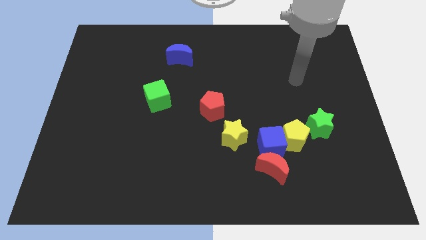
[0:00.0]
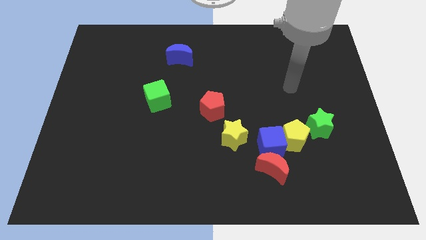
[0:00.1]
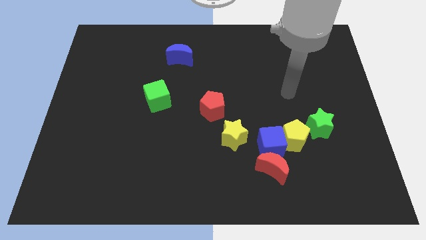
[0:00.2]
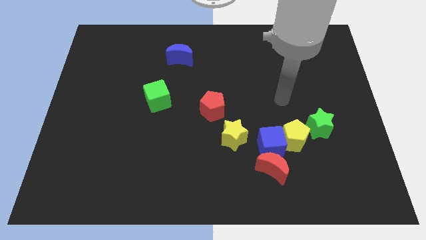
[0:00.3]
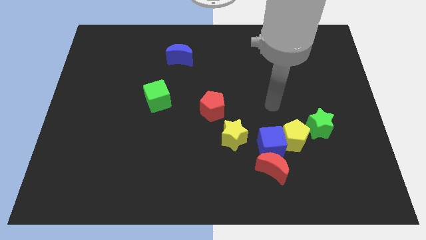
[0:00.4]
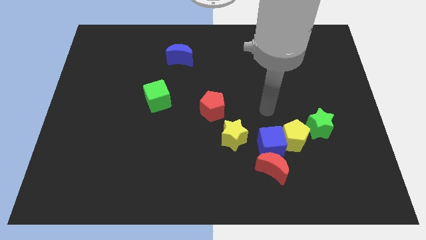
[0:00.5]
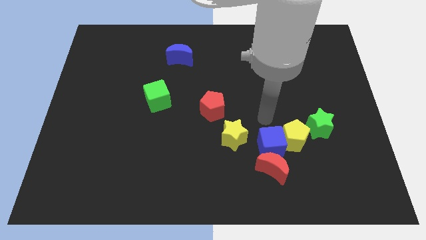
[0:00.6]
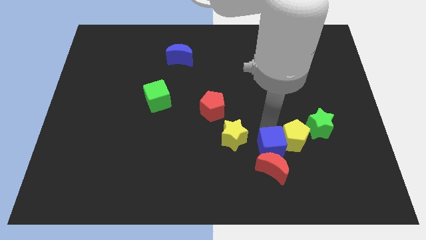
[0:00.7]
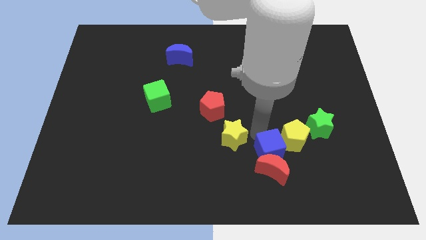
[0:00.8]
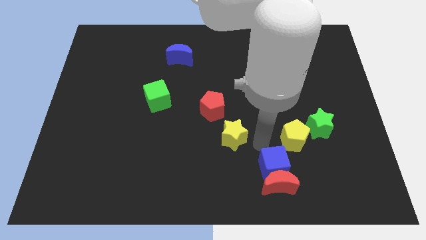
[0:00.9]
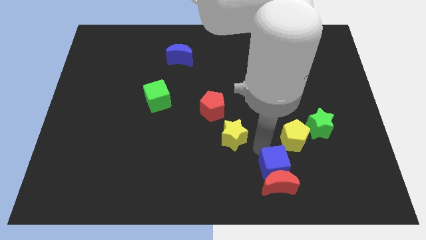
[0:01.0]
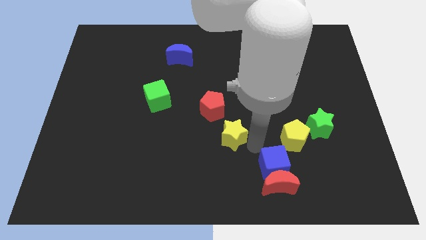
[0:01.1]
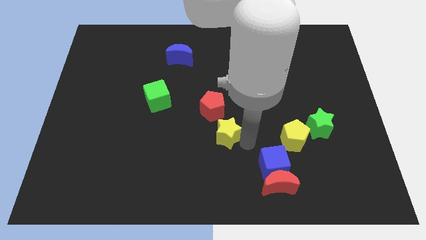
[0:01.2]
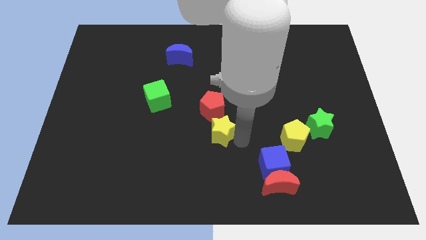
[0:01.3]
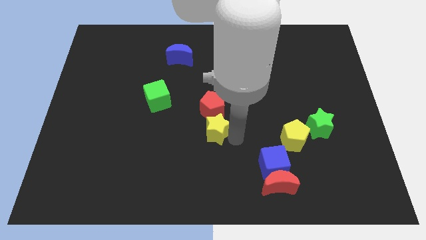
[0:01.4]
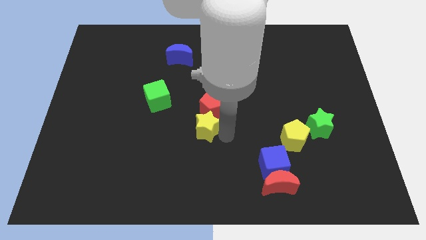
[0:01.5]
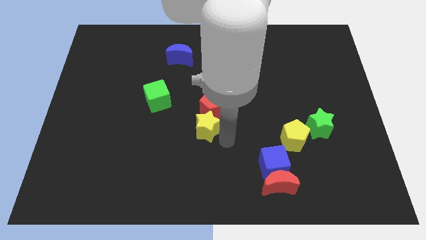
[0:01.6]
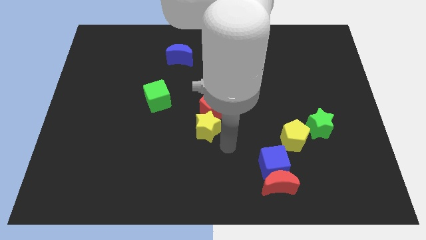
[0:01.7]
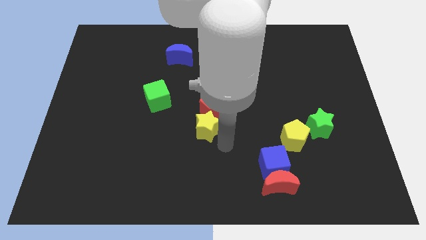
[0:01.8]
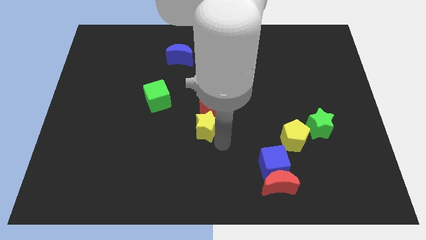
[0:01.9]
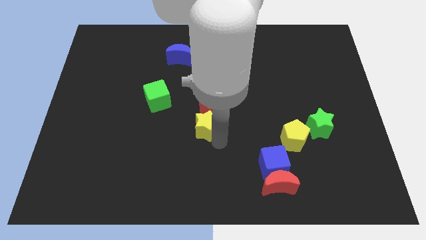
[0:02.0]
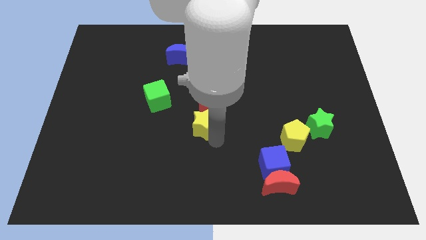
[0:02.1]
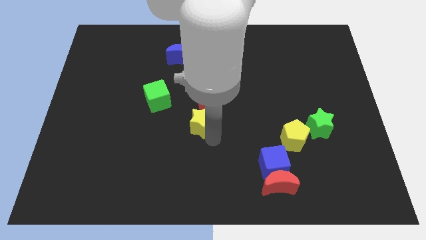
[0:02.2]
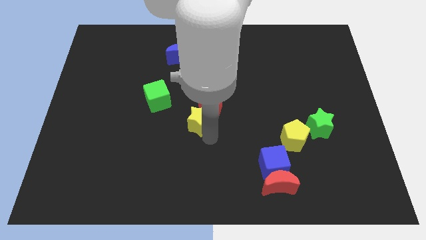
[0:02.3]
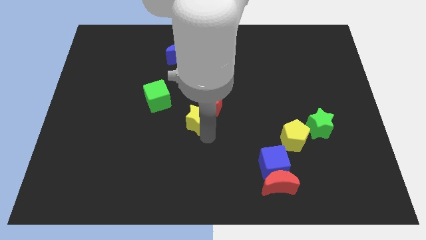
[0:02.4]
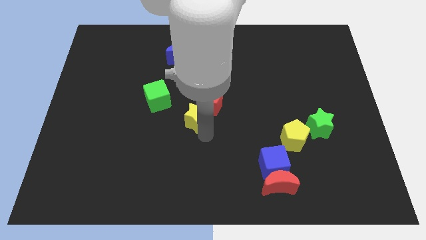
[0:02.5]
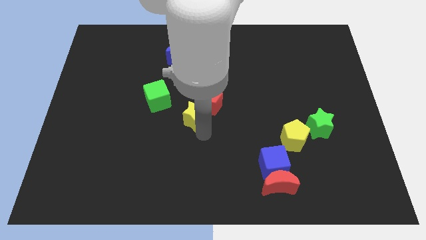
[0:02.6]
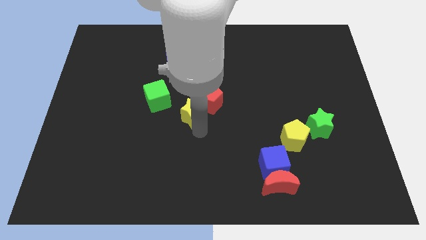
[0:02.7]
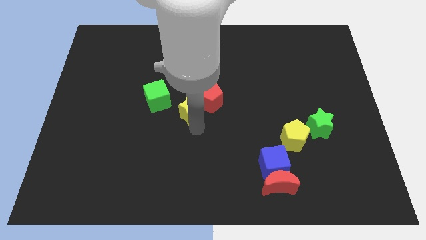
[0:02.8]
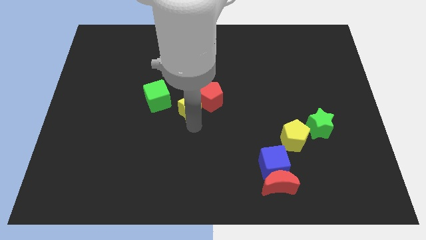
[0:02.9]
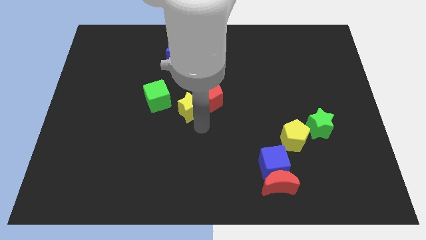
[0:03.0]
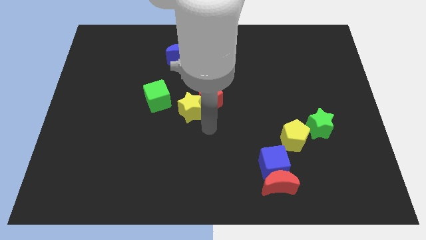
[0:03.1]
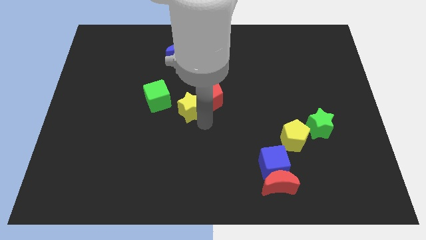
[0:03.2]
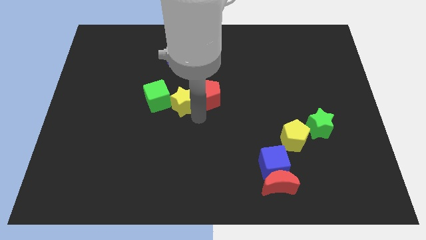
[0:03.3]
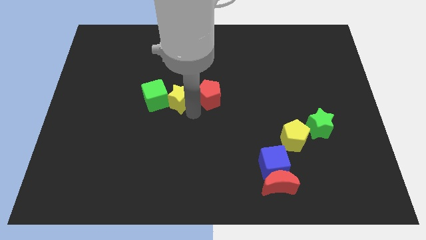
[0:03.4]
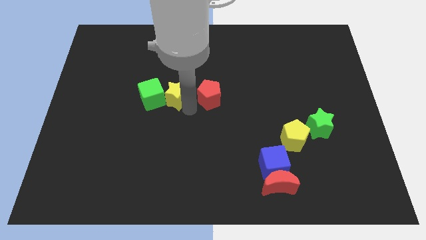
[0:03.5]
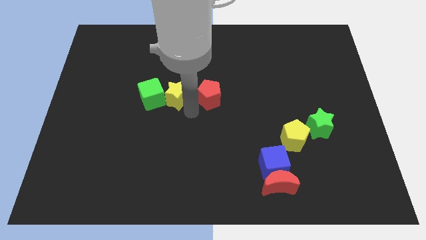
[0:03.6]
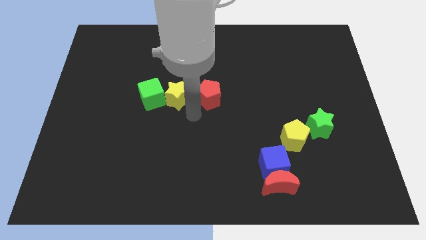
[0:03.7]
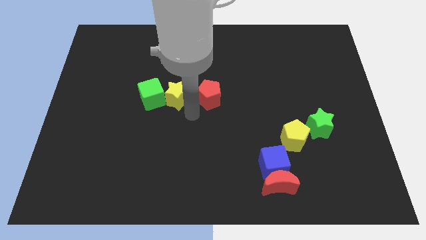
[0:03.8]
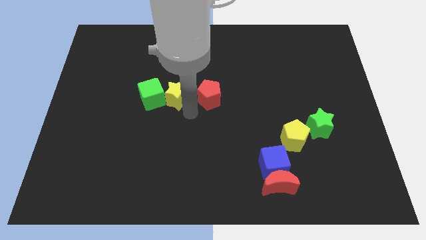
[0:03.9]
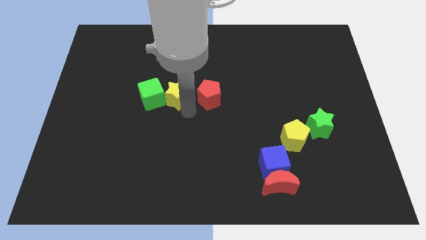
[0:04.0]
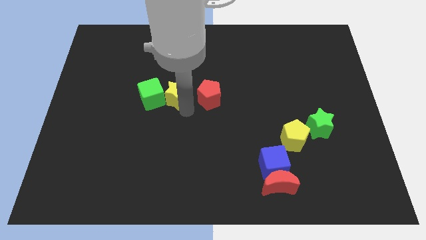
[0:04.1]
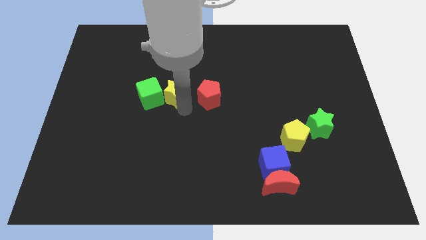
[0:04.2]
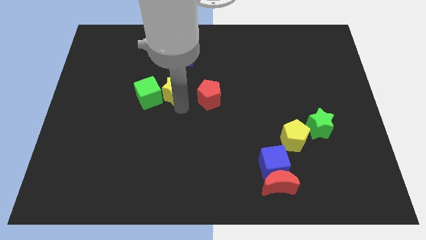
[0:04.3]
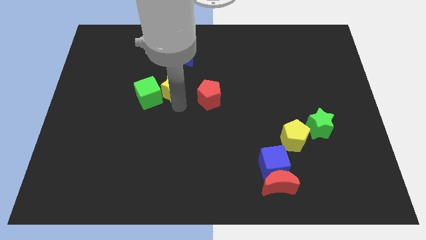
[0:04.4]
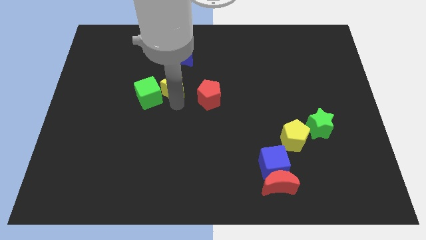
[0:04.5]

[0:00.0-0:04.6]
push the yellow star upwards and left diagonally

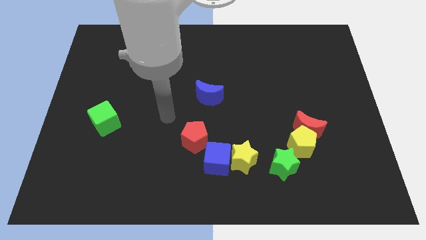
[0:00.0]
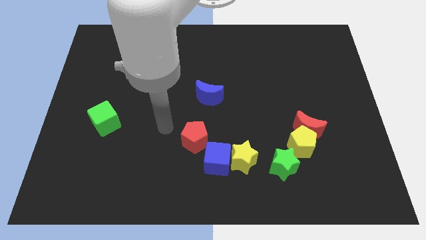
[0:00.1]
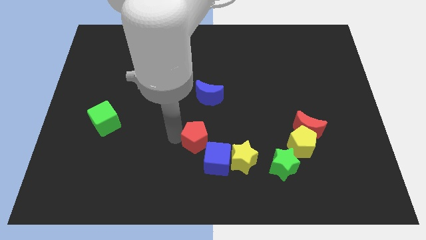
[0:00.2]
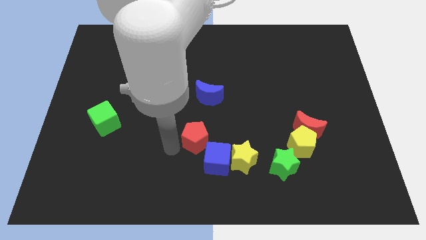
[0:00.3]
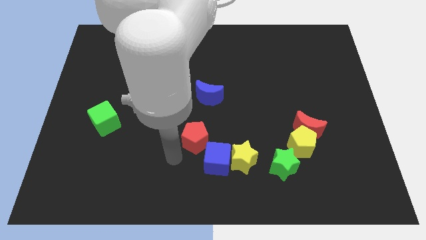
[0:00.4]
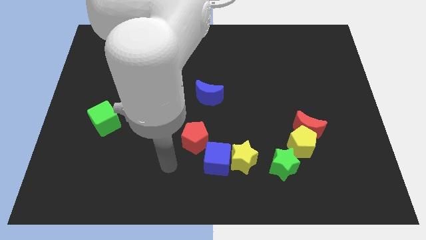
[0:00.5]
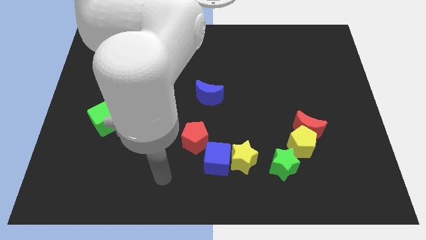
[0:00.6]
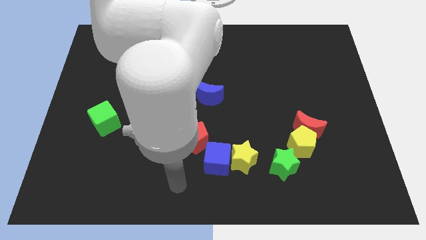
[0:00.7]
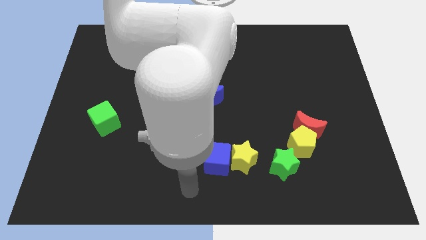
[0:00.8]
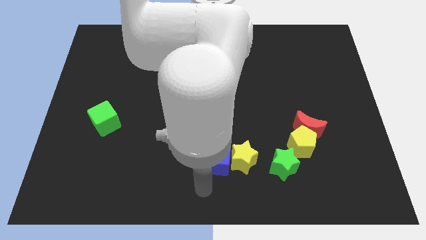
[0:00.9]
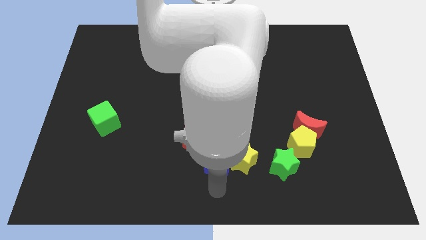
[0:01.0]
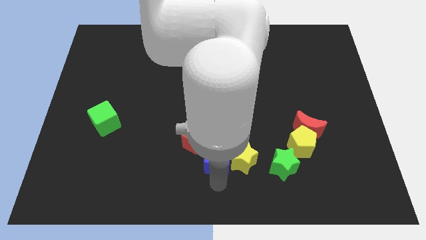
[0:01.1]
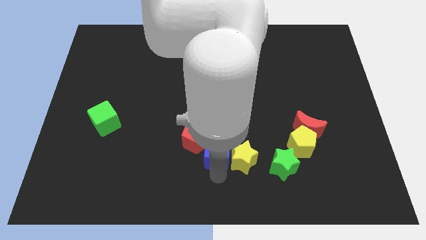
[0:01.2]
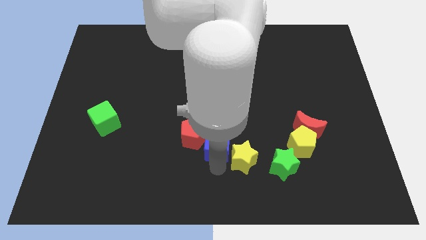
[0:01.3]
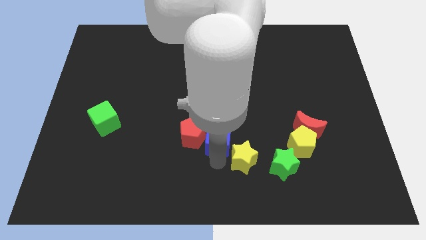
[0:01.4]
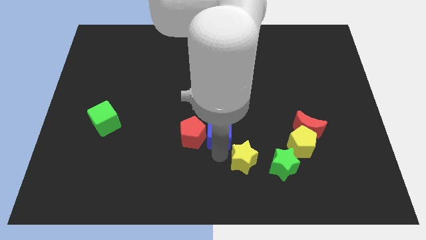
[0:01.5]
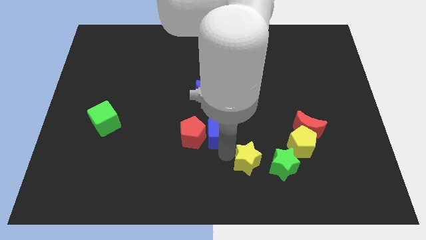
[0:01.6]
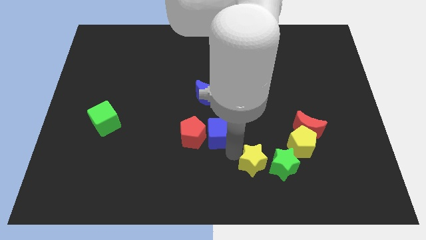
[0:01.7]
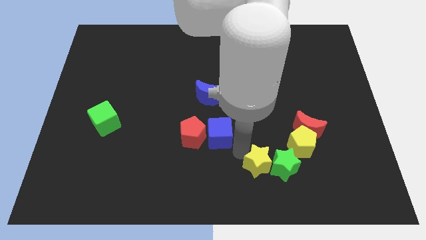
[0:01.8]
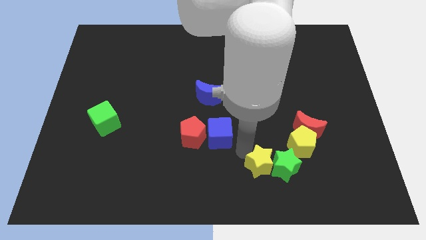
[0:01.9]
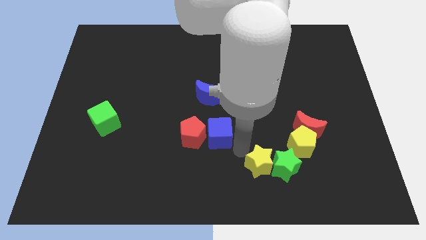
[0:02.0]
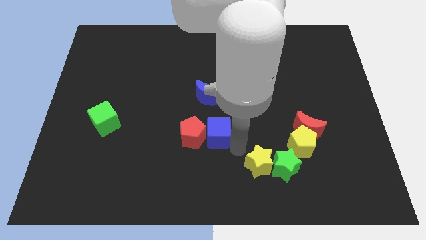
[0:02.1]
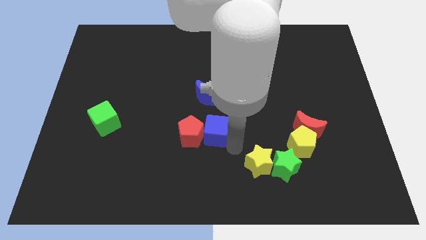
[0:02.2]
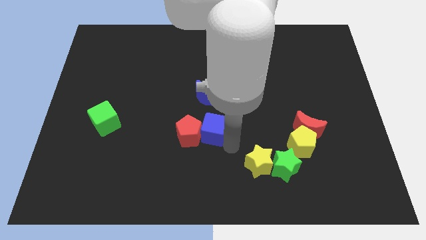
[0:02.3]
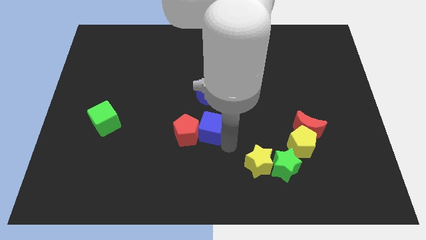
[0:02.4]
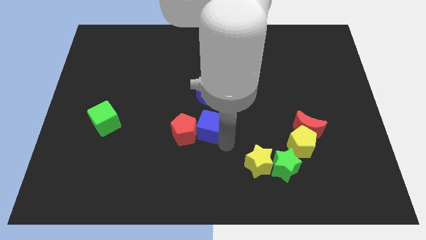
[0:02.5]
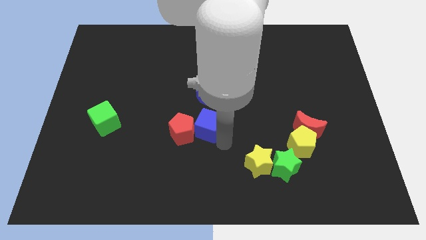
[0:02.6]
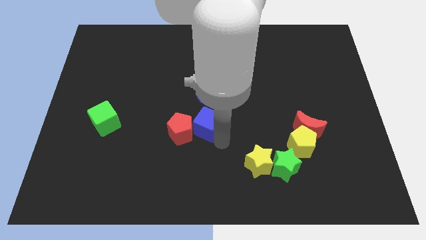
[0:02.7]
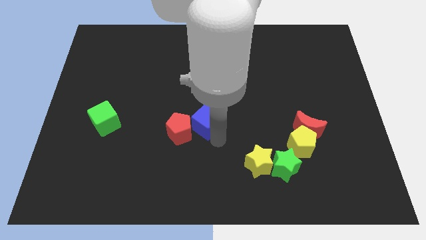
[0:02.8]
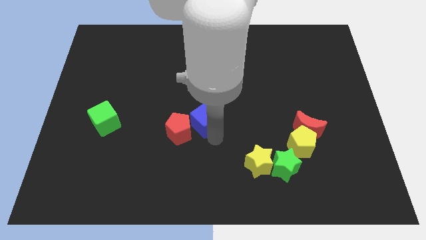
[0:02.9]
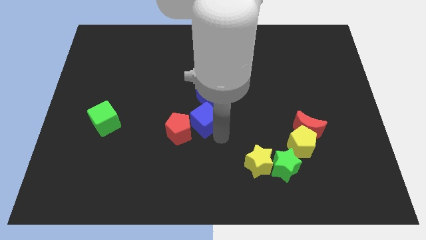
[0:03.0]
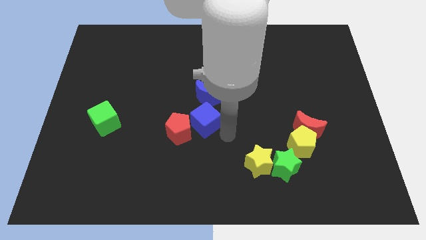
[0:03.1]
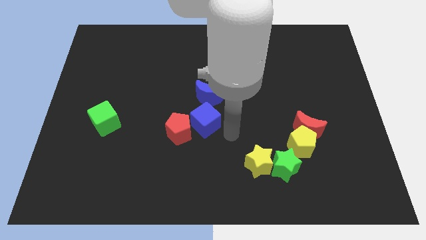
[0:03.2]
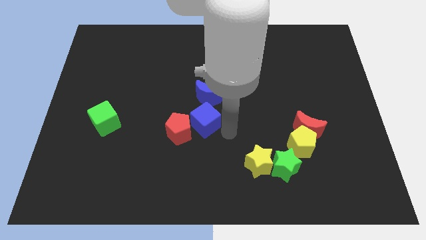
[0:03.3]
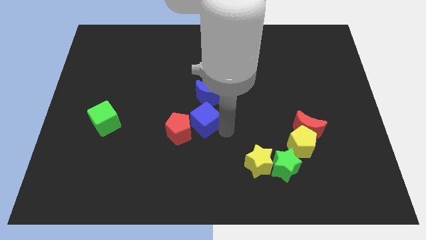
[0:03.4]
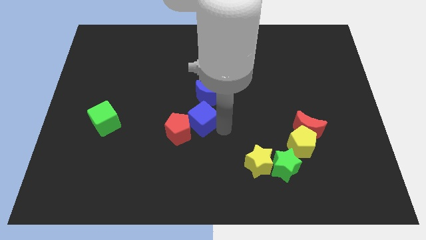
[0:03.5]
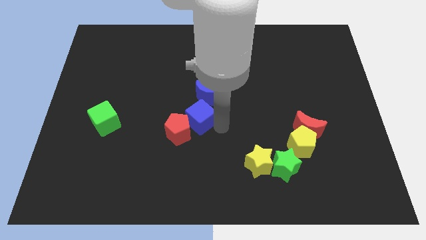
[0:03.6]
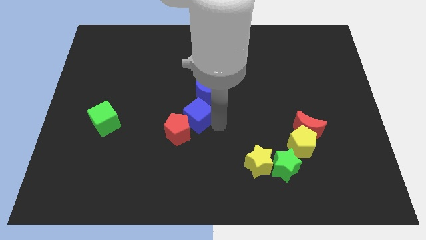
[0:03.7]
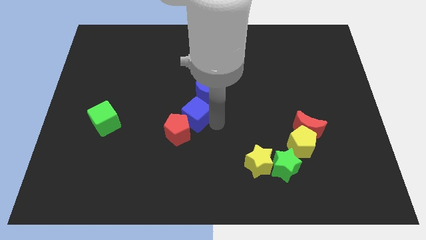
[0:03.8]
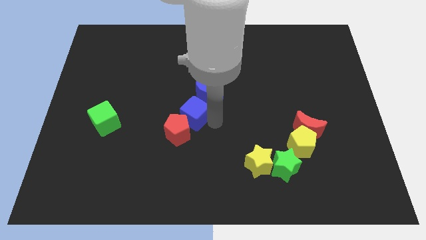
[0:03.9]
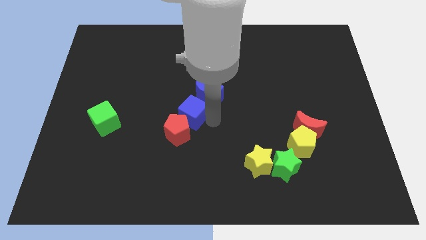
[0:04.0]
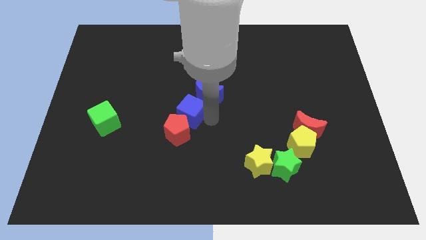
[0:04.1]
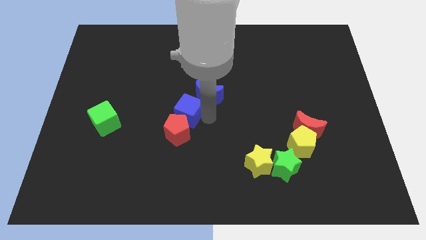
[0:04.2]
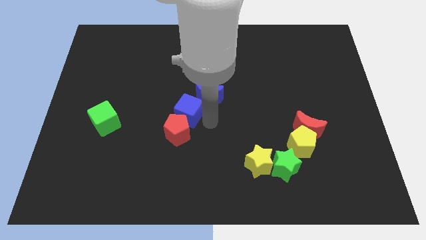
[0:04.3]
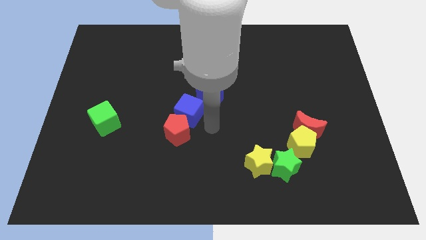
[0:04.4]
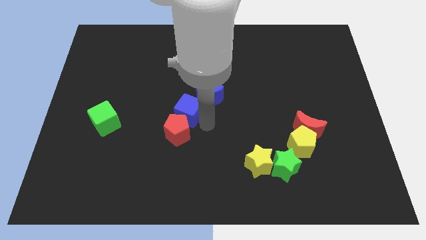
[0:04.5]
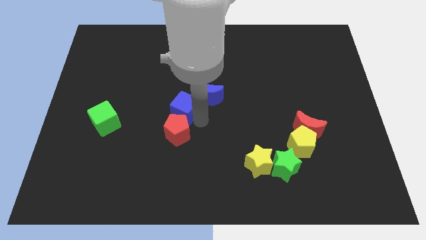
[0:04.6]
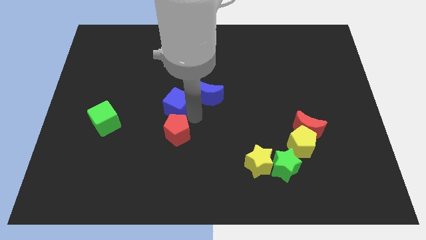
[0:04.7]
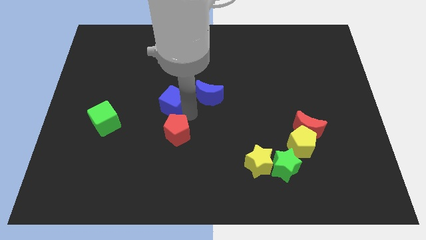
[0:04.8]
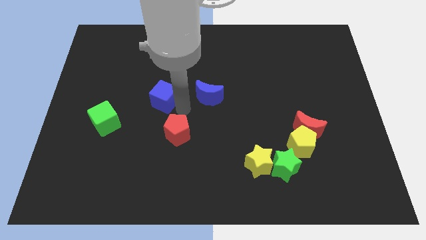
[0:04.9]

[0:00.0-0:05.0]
slide the blue cube up and then to the left
